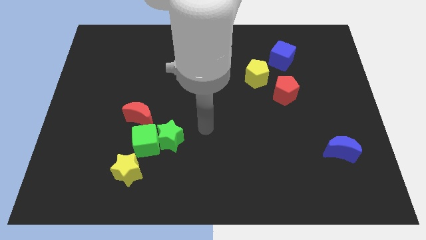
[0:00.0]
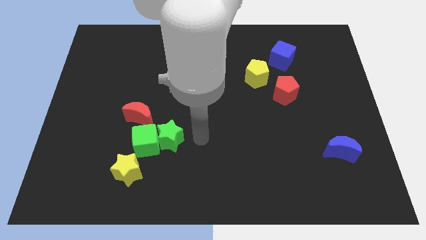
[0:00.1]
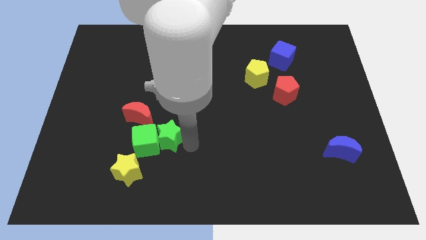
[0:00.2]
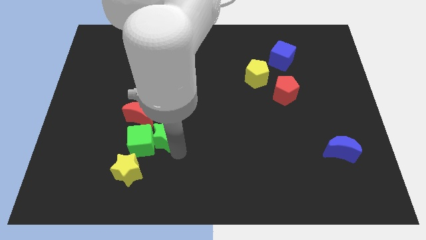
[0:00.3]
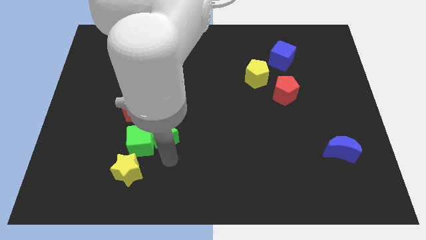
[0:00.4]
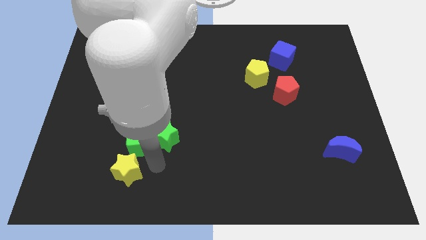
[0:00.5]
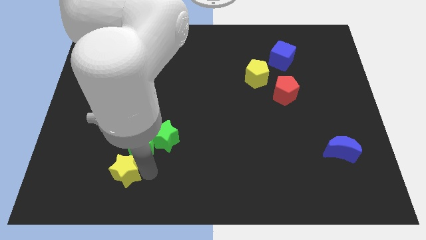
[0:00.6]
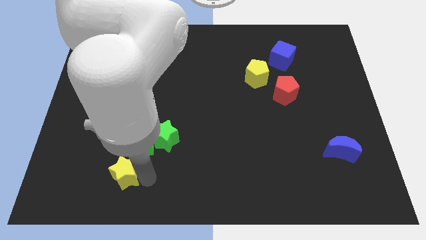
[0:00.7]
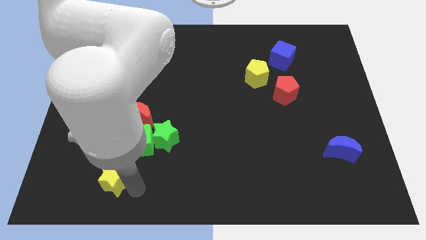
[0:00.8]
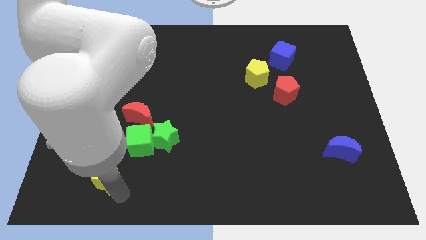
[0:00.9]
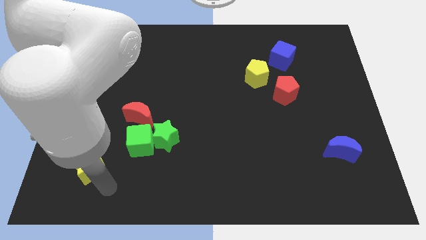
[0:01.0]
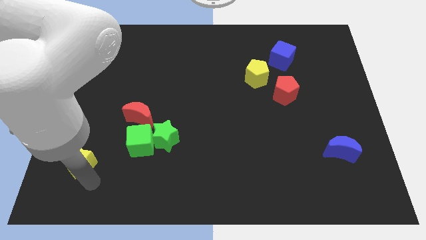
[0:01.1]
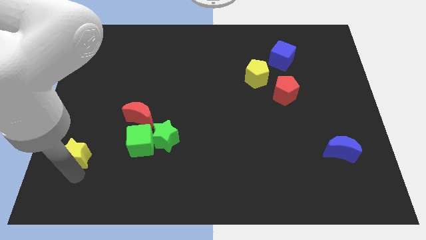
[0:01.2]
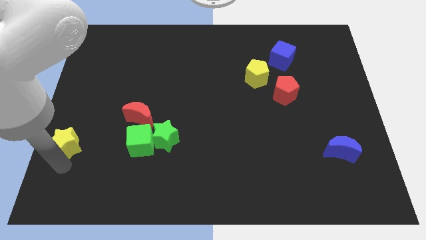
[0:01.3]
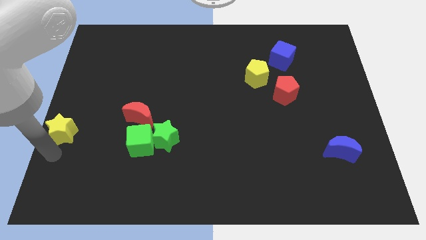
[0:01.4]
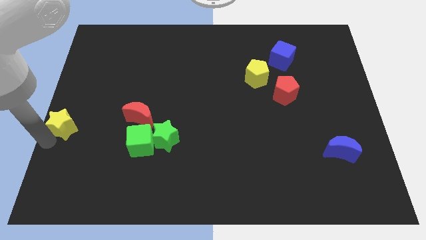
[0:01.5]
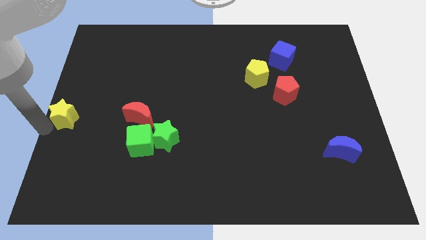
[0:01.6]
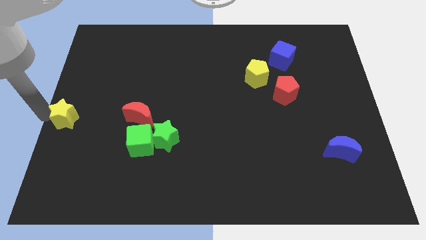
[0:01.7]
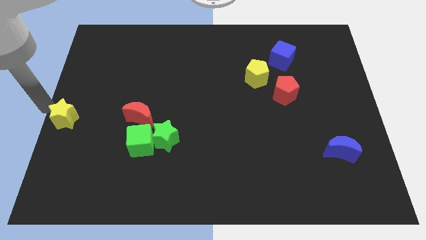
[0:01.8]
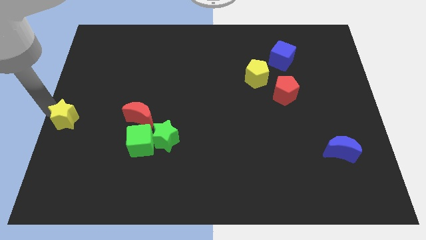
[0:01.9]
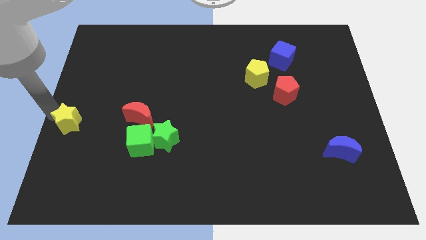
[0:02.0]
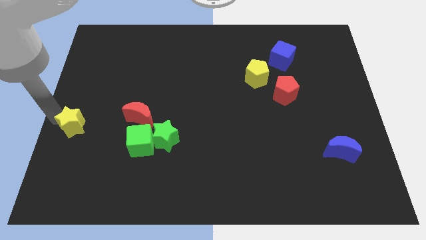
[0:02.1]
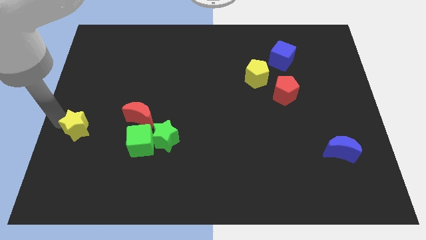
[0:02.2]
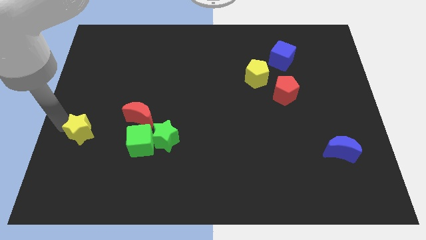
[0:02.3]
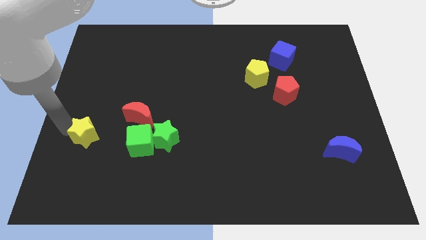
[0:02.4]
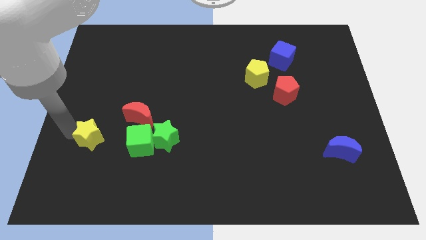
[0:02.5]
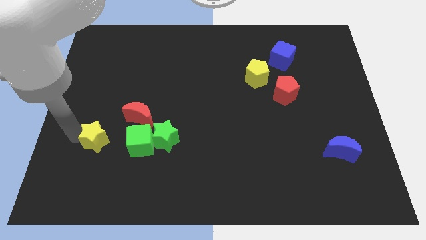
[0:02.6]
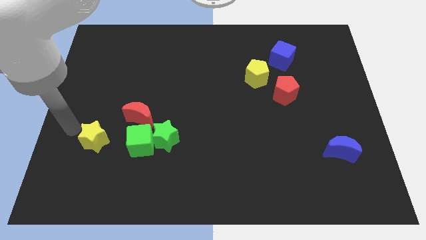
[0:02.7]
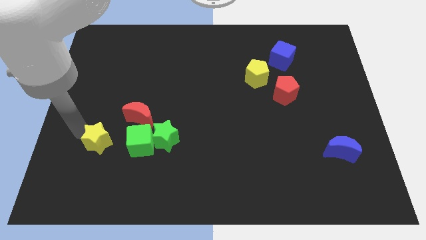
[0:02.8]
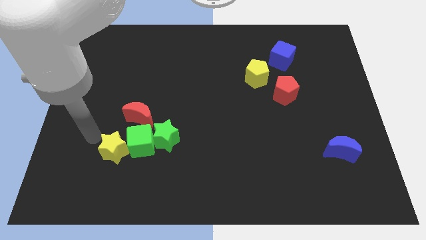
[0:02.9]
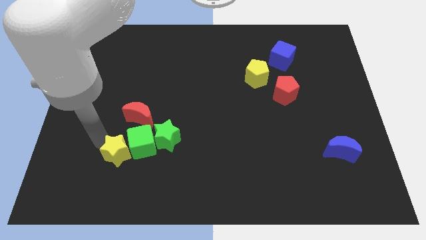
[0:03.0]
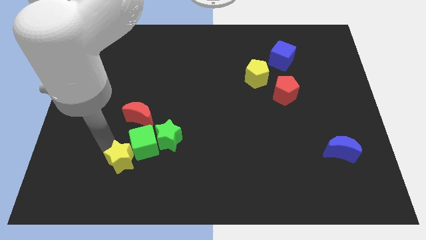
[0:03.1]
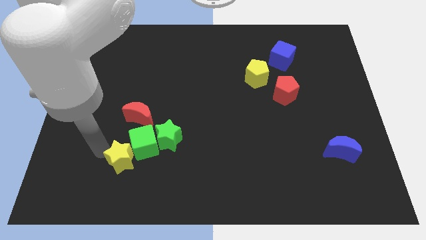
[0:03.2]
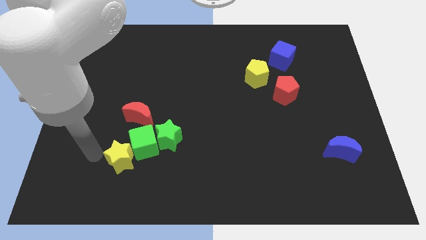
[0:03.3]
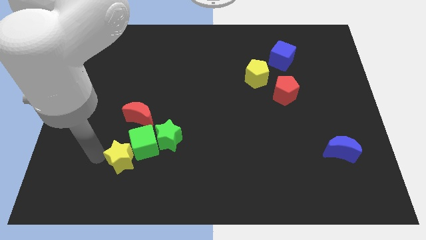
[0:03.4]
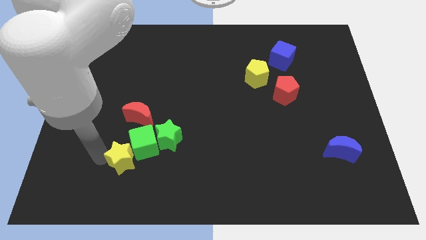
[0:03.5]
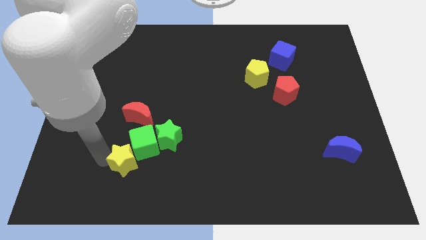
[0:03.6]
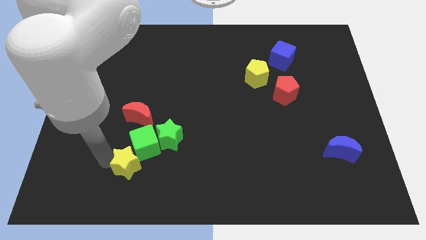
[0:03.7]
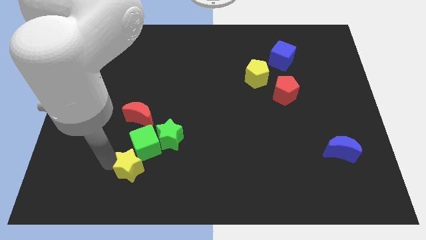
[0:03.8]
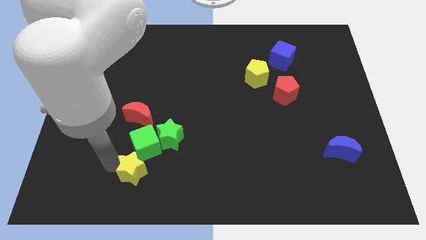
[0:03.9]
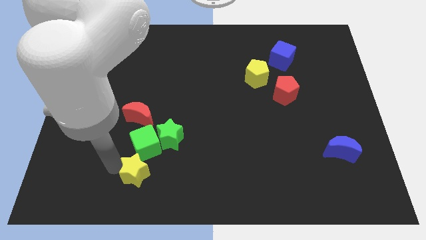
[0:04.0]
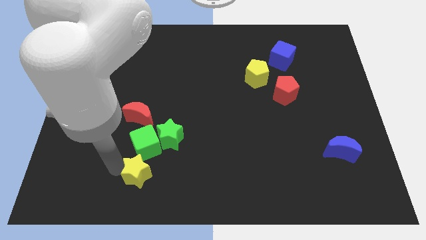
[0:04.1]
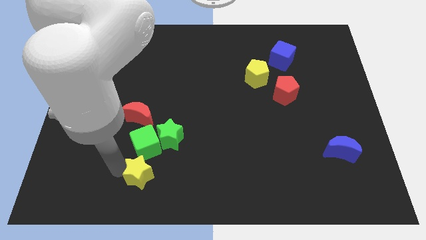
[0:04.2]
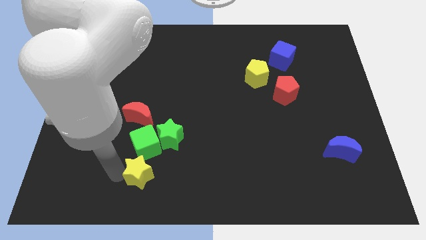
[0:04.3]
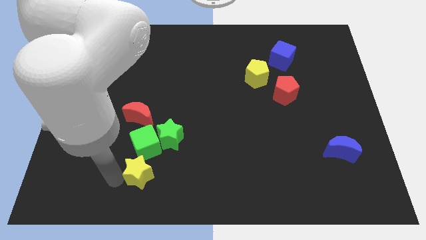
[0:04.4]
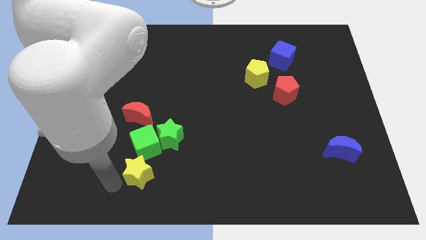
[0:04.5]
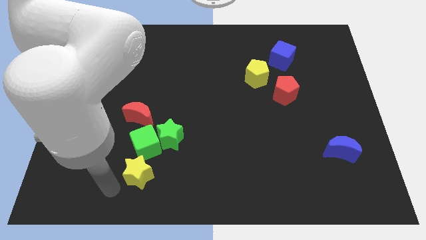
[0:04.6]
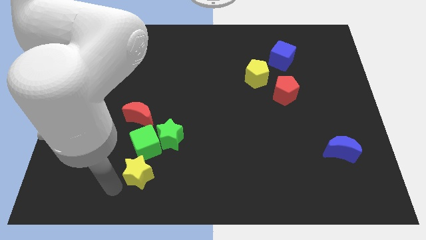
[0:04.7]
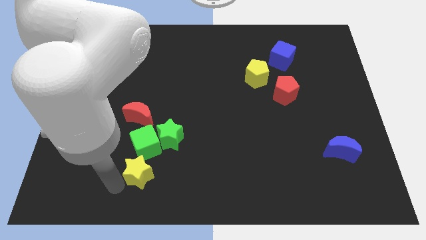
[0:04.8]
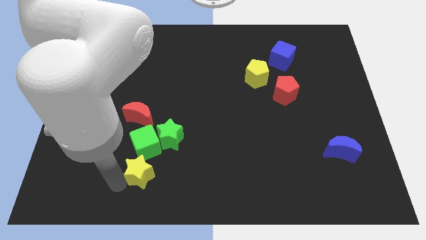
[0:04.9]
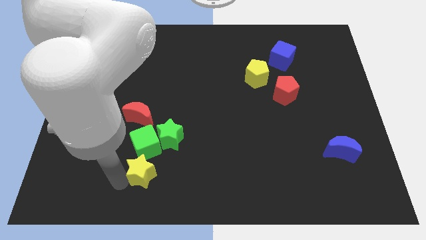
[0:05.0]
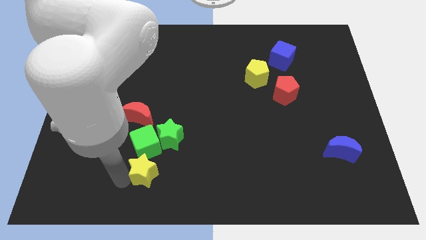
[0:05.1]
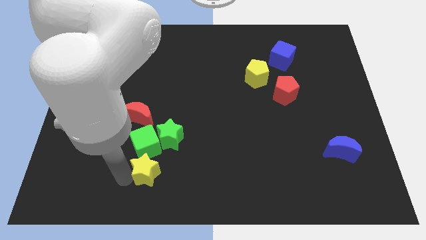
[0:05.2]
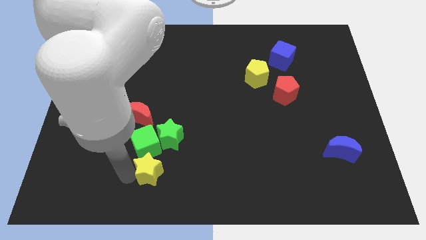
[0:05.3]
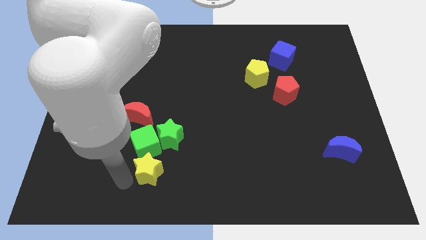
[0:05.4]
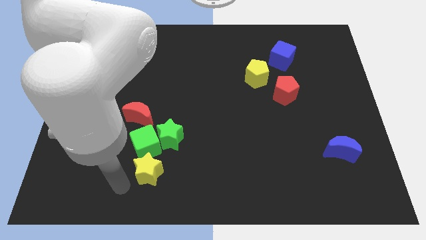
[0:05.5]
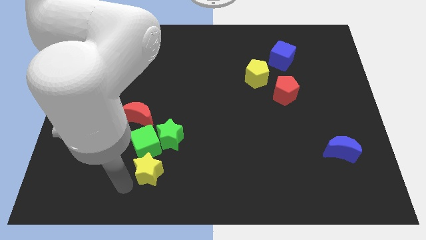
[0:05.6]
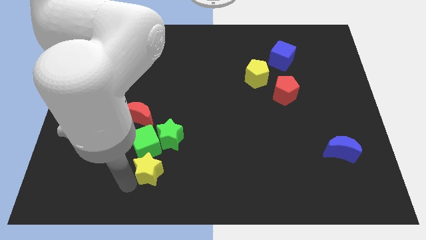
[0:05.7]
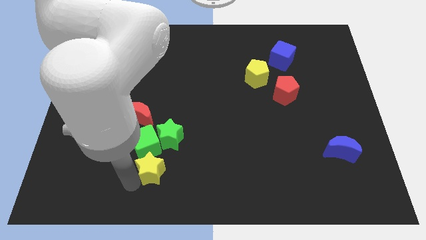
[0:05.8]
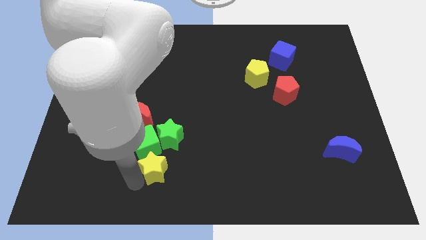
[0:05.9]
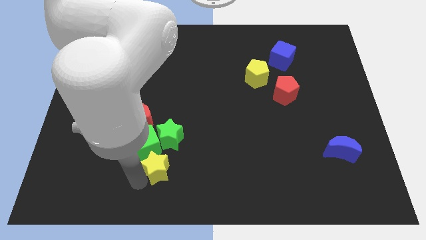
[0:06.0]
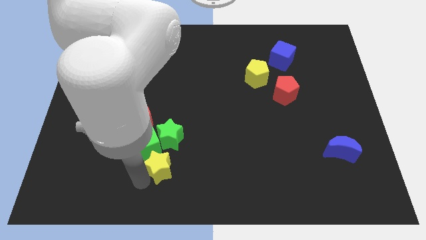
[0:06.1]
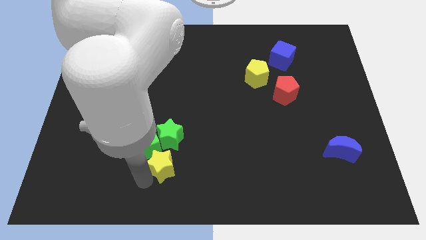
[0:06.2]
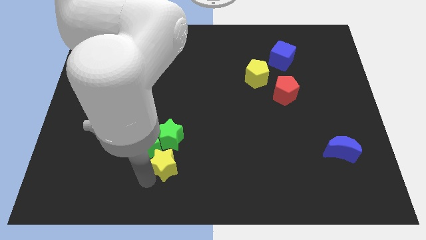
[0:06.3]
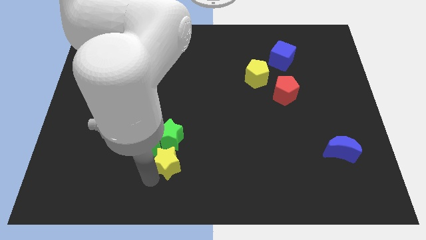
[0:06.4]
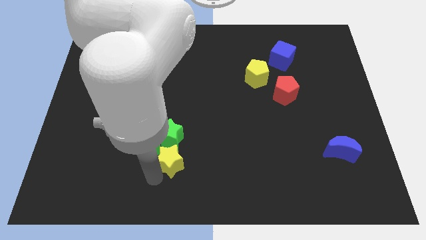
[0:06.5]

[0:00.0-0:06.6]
slightly move the yellow star upwards and to the right diagonally

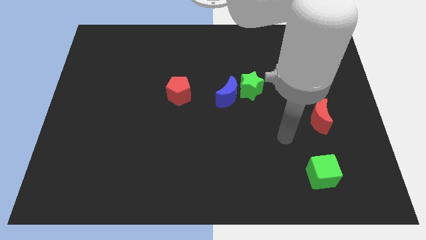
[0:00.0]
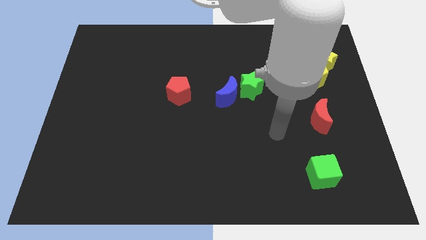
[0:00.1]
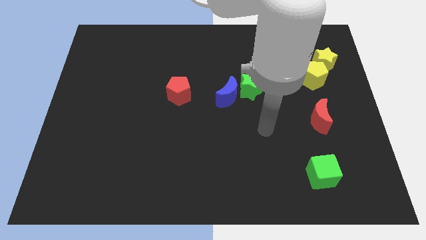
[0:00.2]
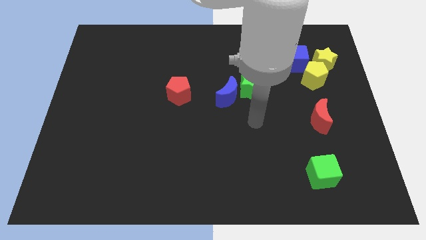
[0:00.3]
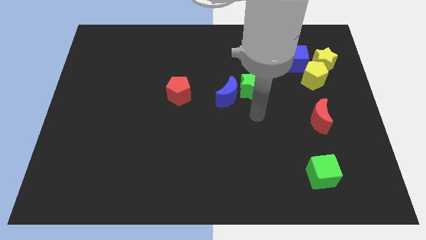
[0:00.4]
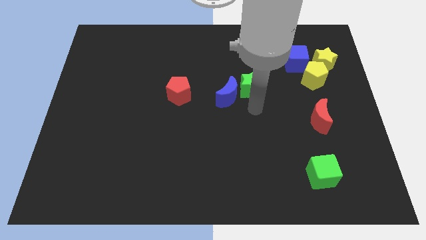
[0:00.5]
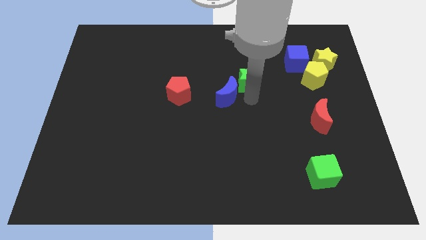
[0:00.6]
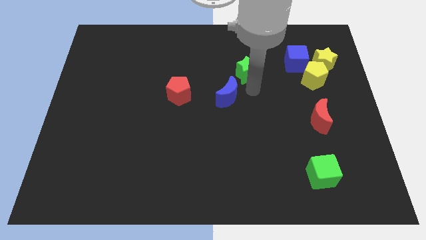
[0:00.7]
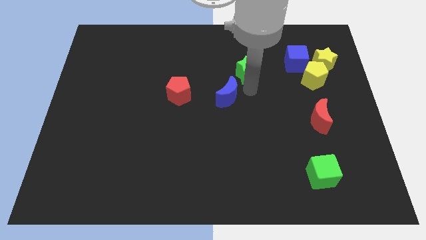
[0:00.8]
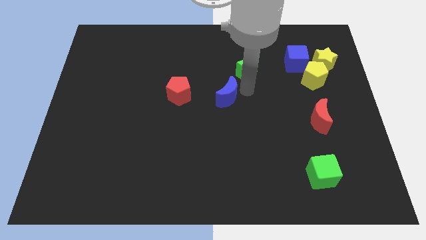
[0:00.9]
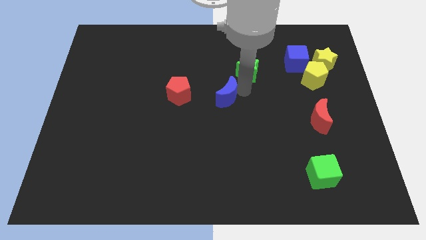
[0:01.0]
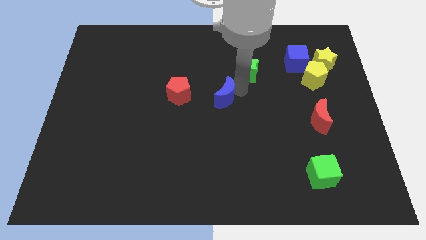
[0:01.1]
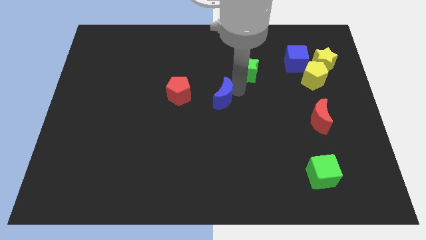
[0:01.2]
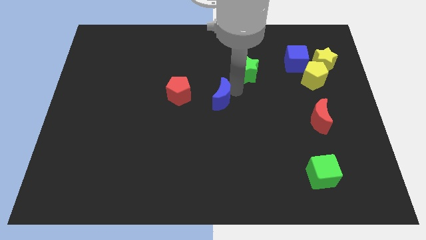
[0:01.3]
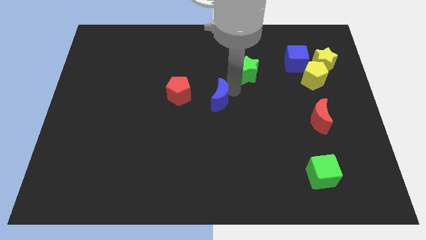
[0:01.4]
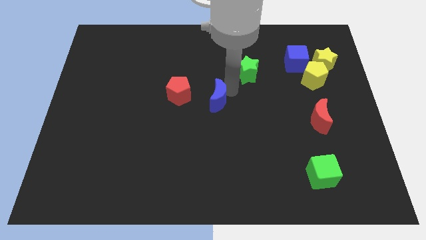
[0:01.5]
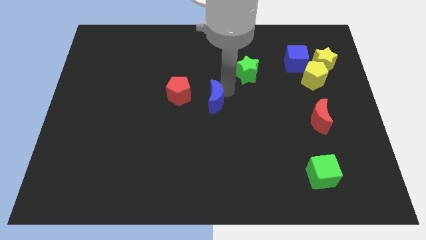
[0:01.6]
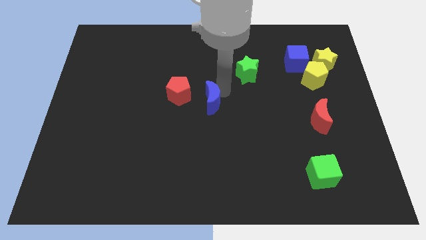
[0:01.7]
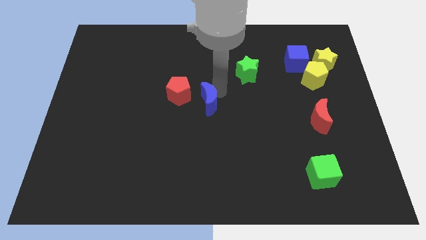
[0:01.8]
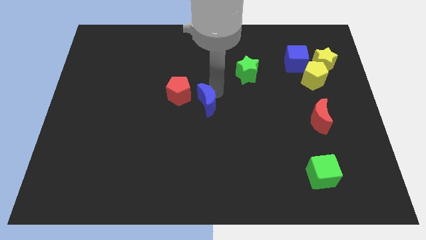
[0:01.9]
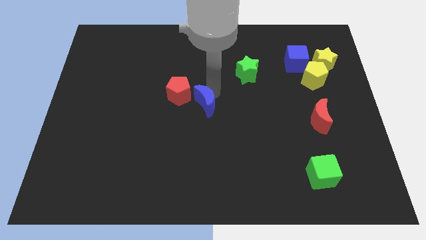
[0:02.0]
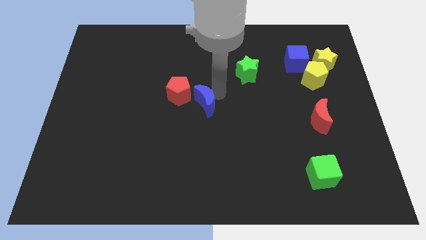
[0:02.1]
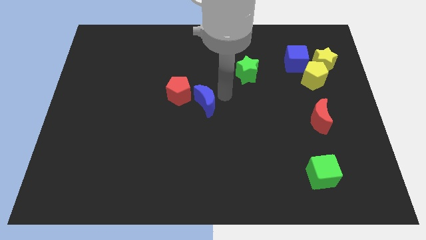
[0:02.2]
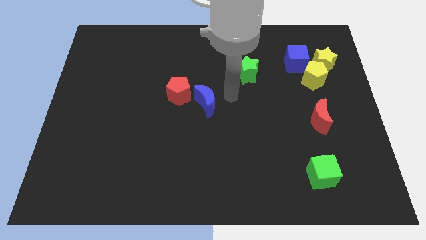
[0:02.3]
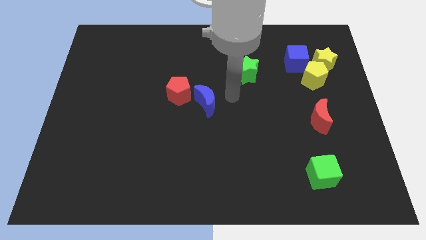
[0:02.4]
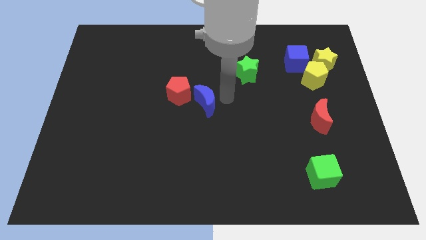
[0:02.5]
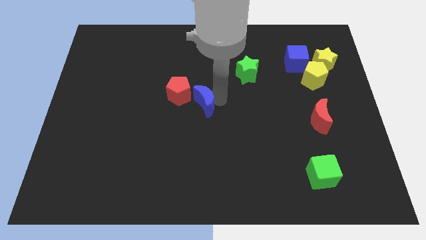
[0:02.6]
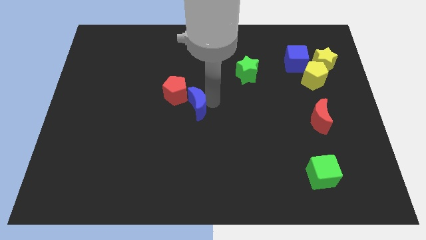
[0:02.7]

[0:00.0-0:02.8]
move the blue moon to the left slightly
